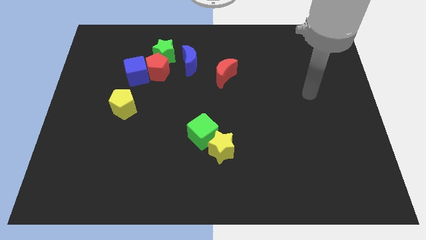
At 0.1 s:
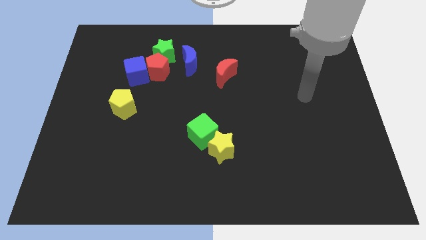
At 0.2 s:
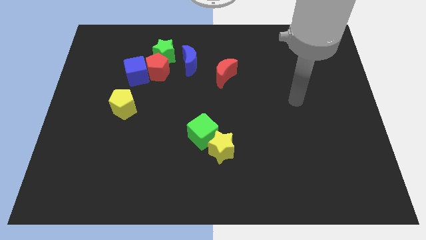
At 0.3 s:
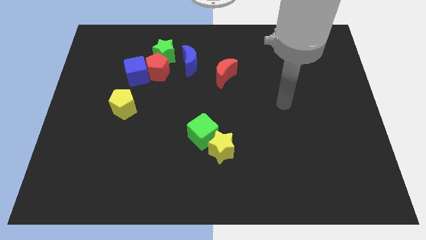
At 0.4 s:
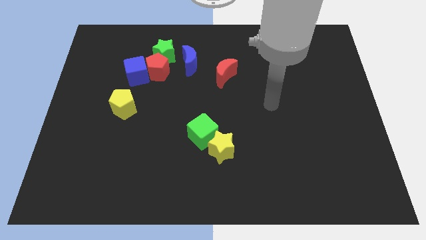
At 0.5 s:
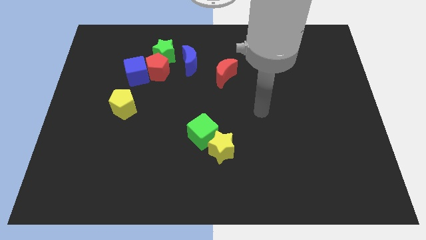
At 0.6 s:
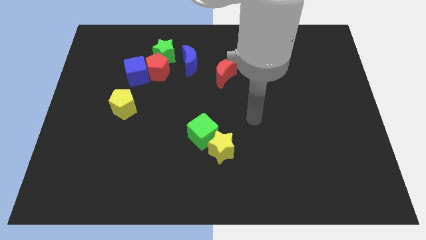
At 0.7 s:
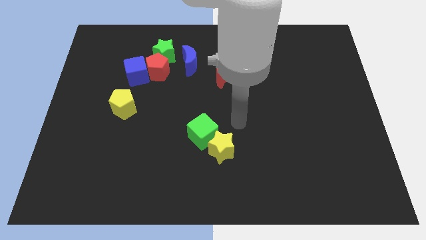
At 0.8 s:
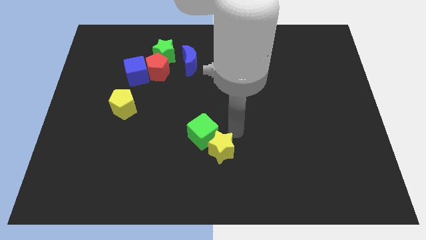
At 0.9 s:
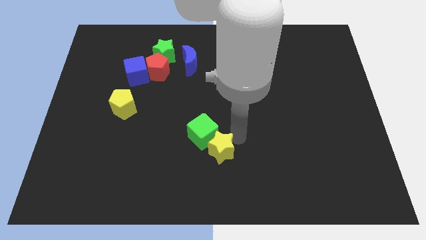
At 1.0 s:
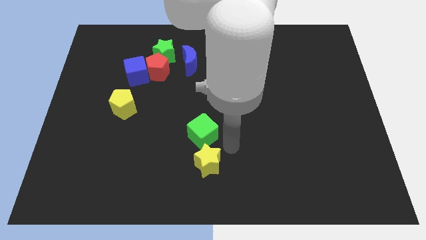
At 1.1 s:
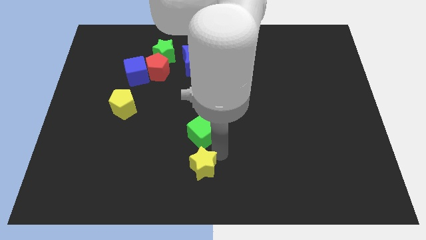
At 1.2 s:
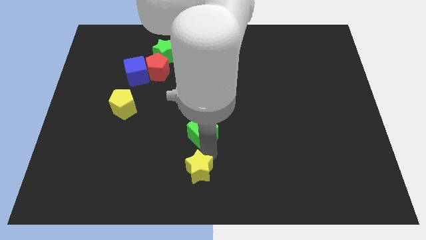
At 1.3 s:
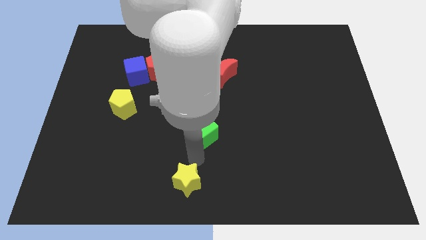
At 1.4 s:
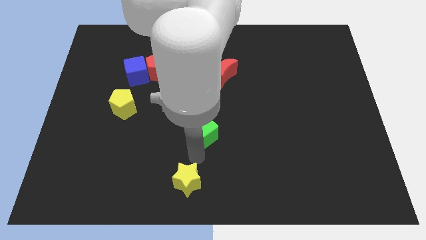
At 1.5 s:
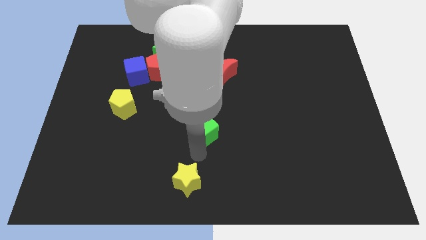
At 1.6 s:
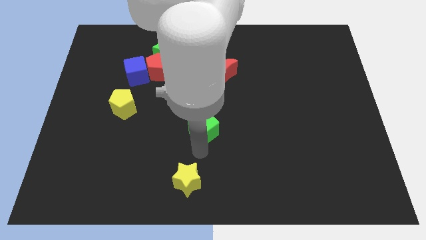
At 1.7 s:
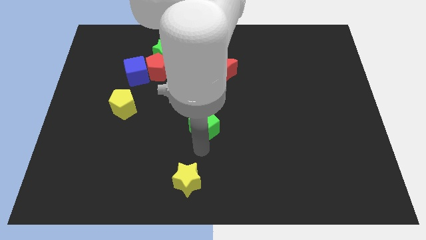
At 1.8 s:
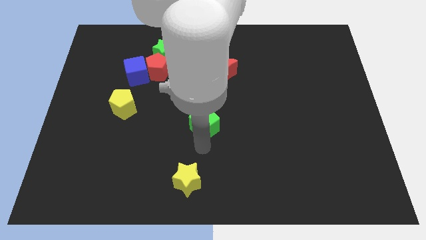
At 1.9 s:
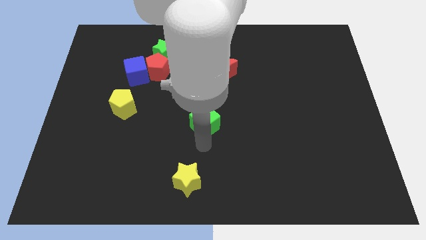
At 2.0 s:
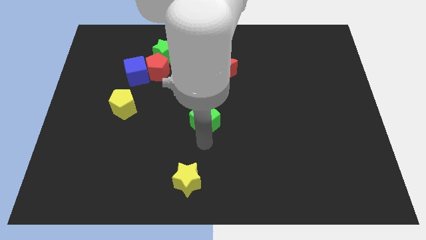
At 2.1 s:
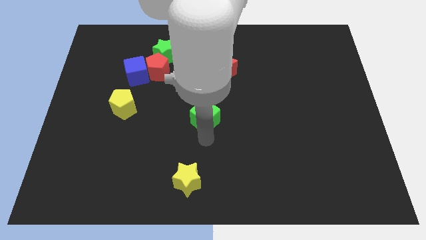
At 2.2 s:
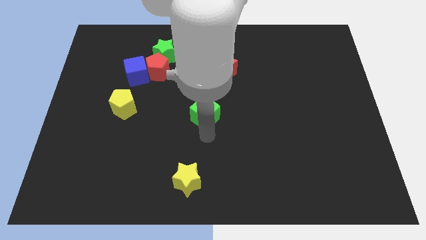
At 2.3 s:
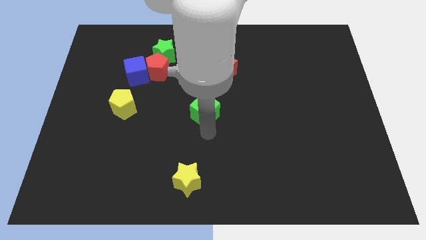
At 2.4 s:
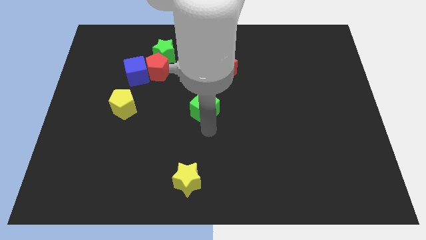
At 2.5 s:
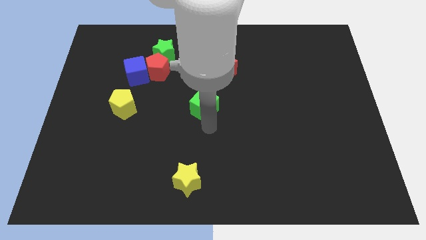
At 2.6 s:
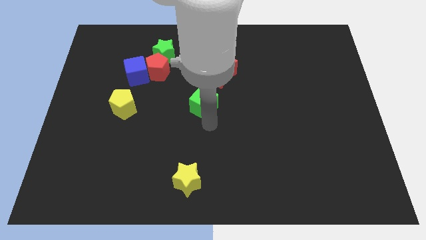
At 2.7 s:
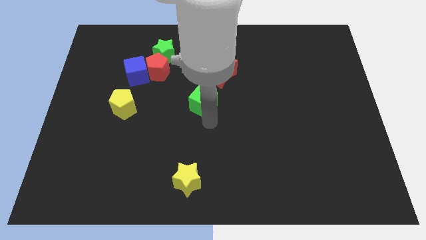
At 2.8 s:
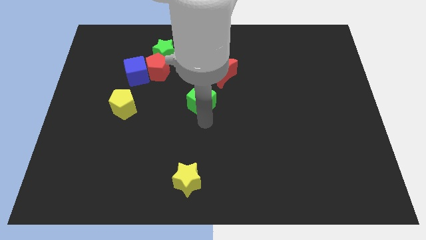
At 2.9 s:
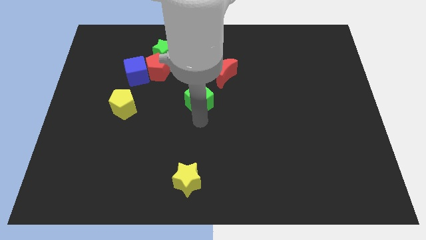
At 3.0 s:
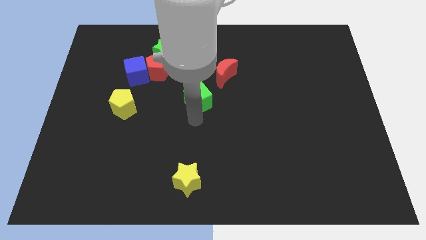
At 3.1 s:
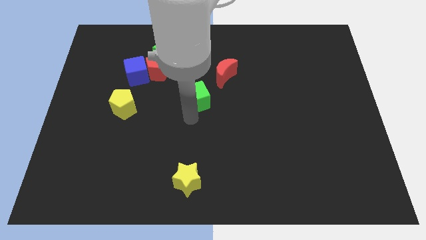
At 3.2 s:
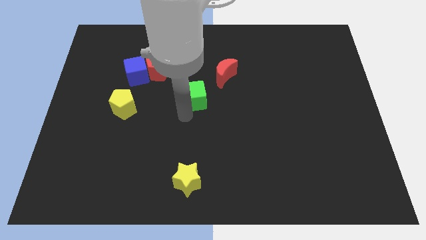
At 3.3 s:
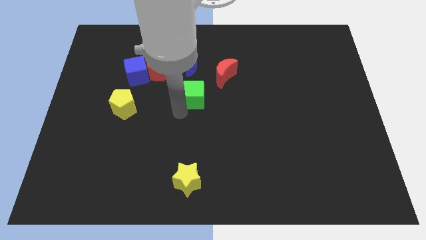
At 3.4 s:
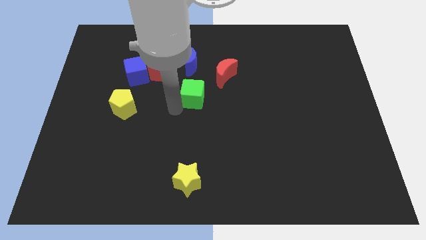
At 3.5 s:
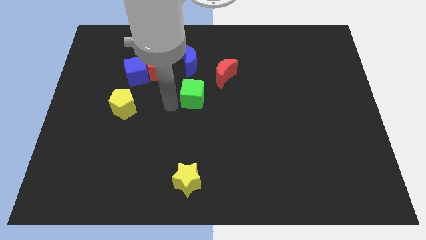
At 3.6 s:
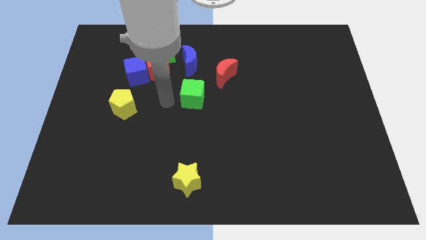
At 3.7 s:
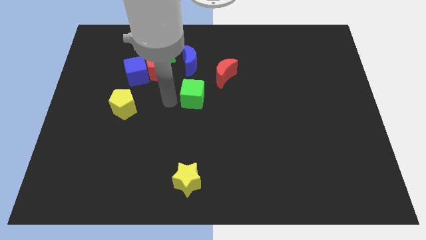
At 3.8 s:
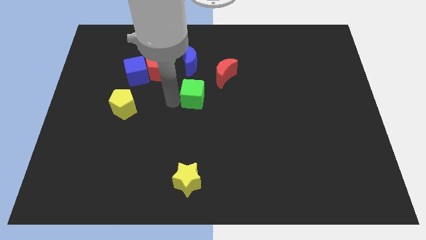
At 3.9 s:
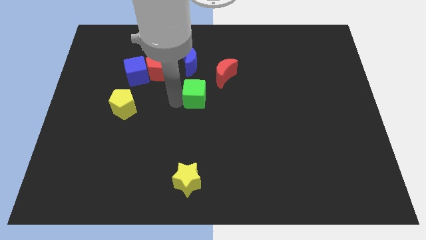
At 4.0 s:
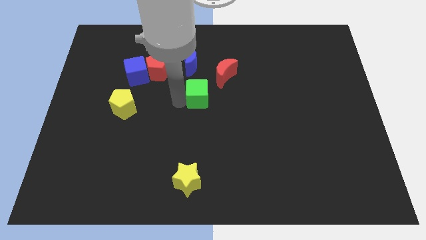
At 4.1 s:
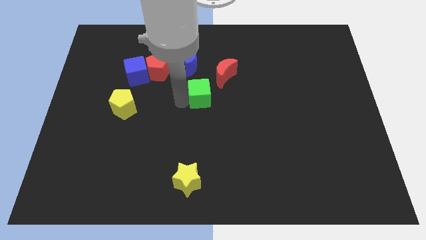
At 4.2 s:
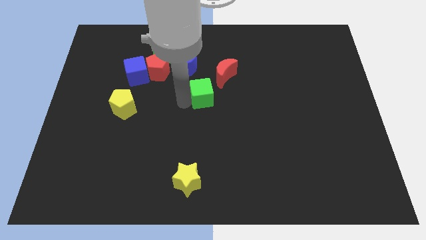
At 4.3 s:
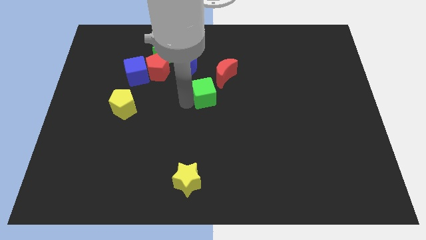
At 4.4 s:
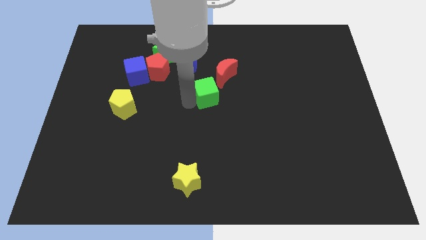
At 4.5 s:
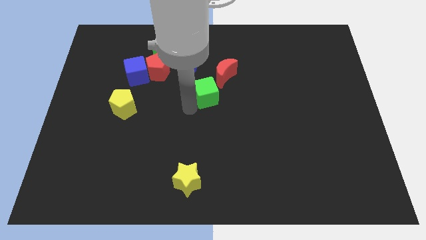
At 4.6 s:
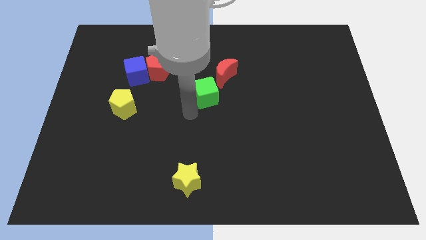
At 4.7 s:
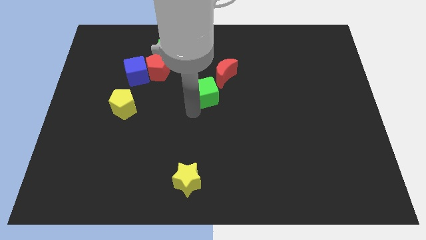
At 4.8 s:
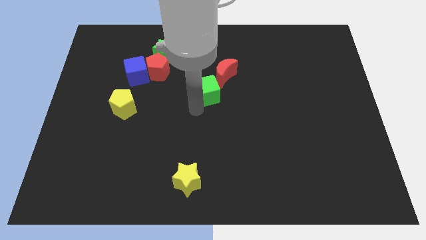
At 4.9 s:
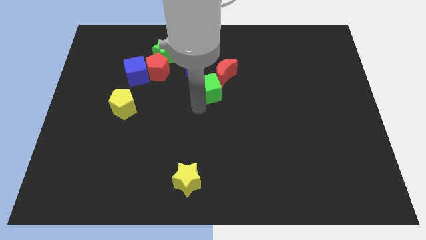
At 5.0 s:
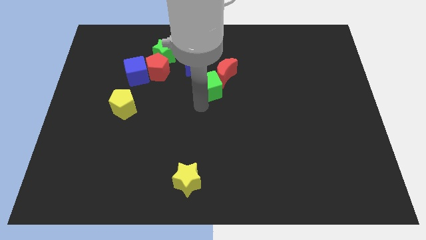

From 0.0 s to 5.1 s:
slide the green cube towards the red moon

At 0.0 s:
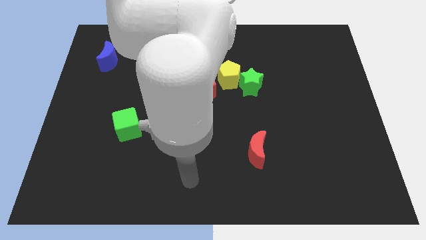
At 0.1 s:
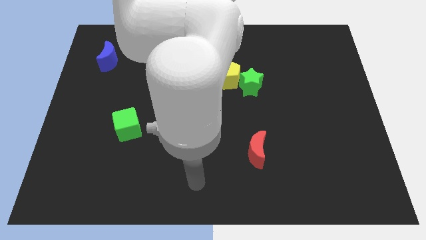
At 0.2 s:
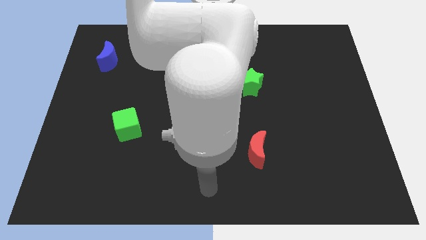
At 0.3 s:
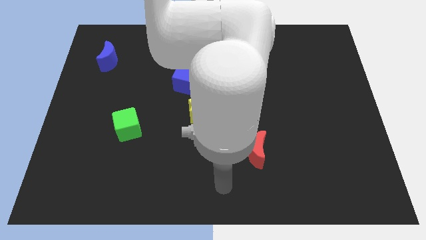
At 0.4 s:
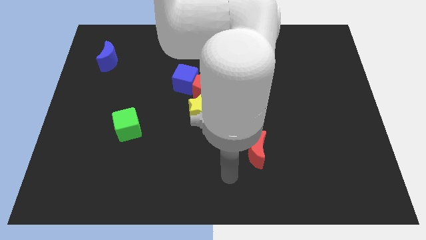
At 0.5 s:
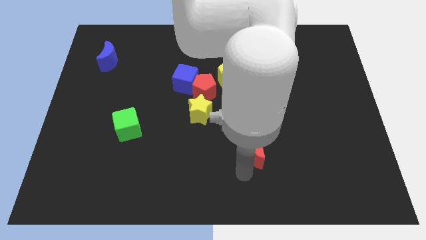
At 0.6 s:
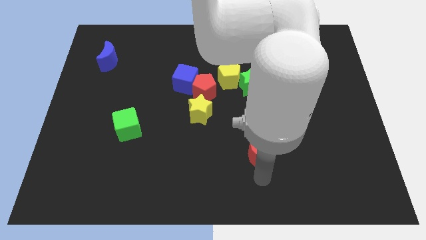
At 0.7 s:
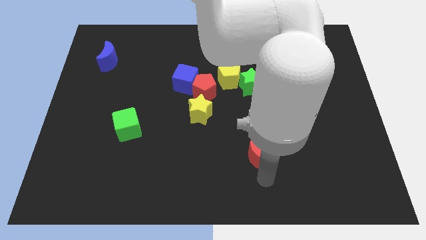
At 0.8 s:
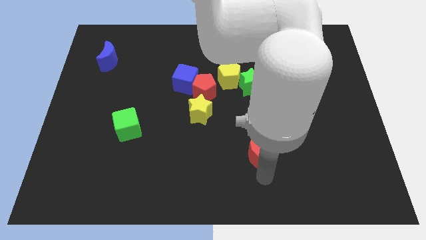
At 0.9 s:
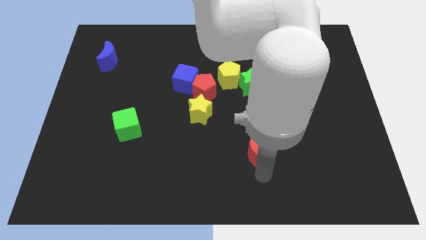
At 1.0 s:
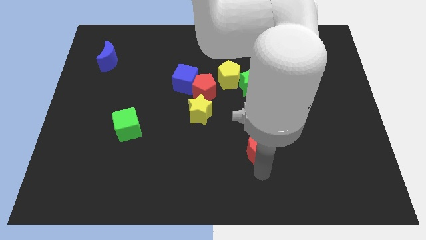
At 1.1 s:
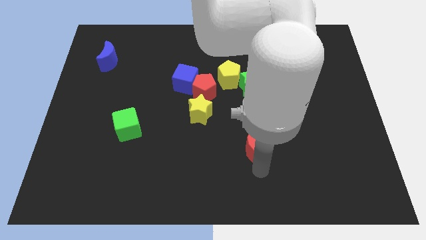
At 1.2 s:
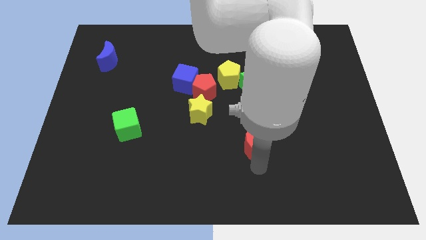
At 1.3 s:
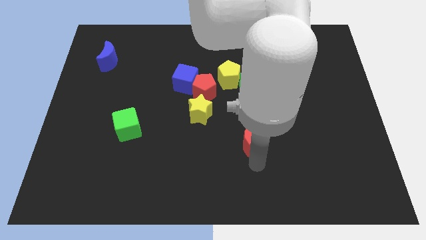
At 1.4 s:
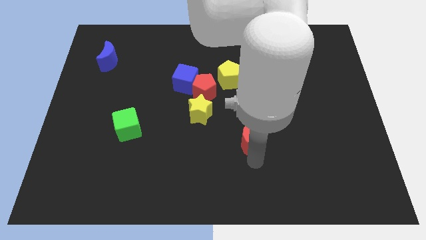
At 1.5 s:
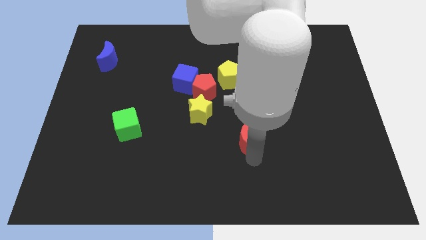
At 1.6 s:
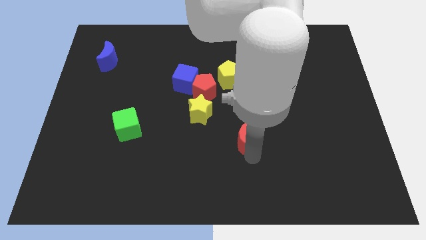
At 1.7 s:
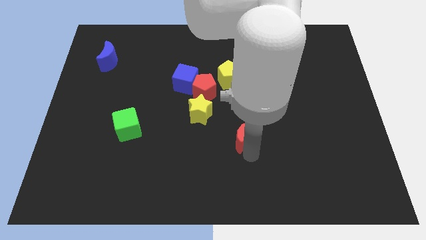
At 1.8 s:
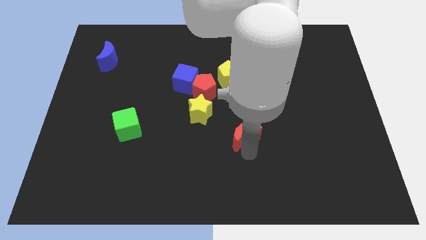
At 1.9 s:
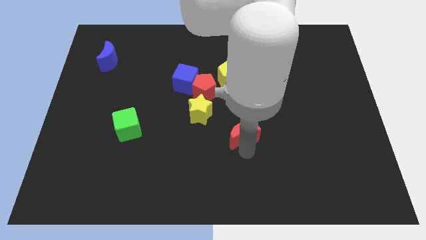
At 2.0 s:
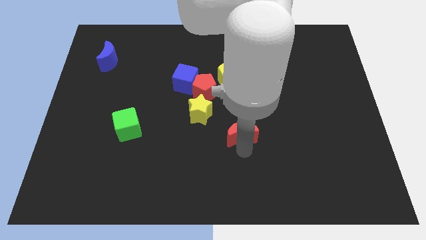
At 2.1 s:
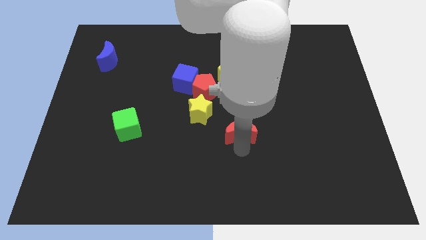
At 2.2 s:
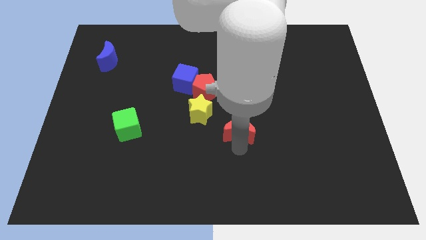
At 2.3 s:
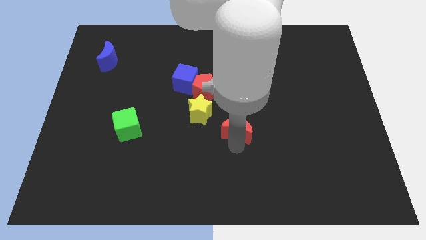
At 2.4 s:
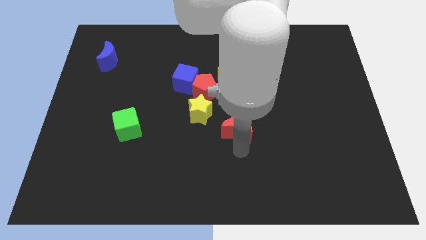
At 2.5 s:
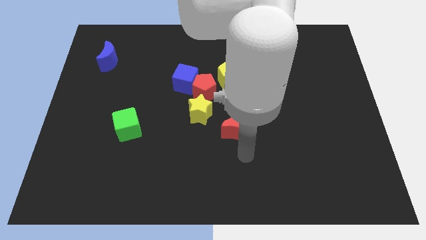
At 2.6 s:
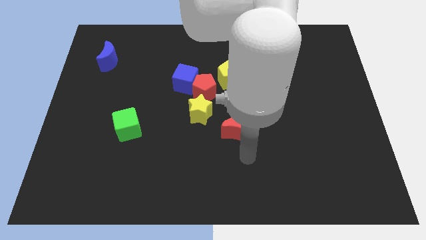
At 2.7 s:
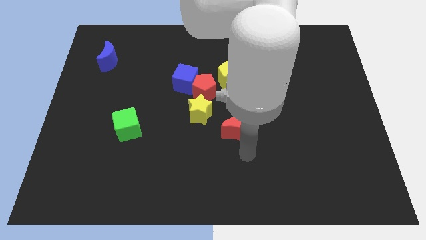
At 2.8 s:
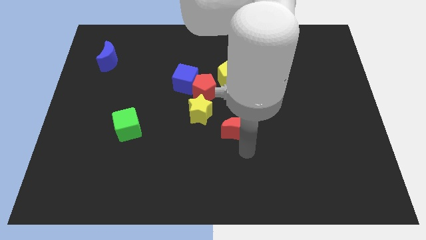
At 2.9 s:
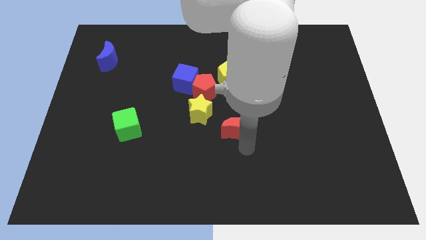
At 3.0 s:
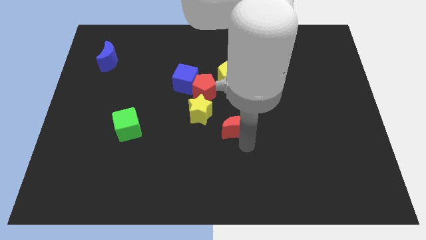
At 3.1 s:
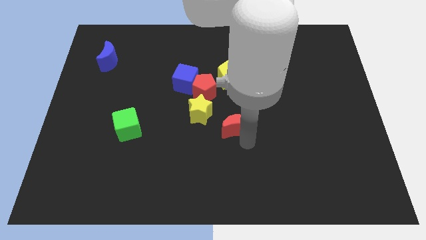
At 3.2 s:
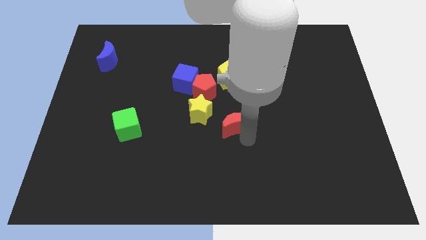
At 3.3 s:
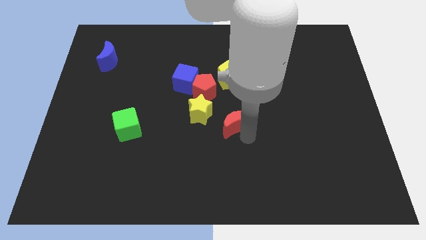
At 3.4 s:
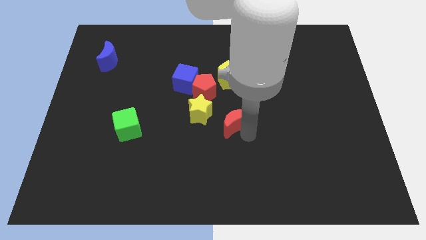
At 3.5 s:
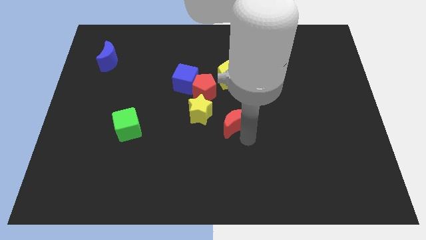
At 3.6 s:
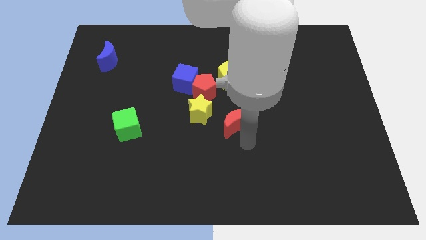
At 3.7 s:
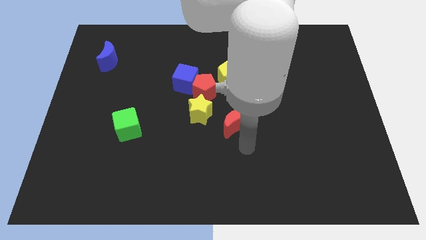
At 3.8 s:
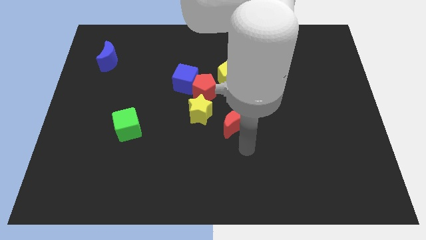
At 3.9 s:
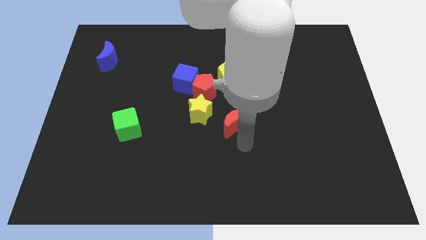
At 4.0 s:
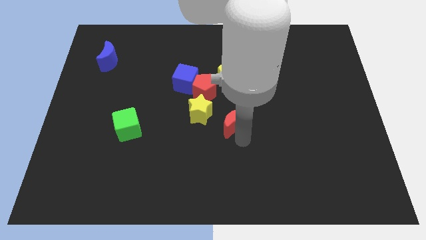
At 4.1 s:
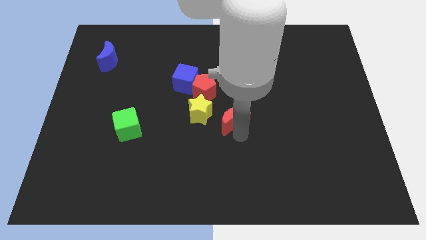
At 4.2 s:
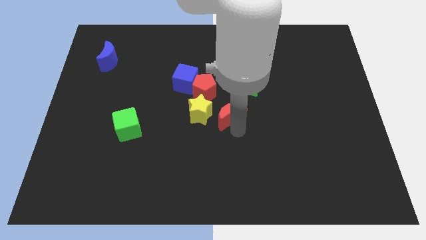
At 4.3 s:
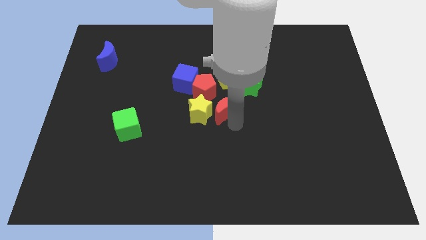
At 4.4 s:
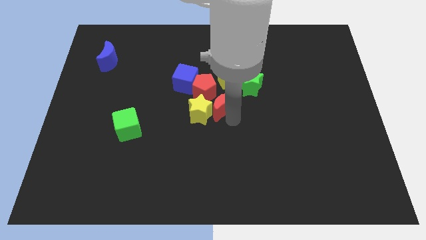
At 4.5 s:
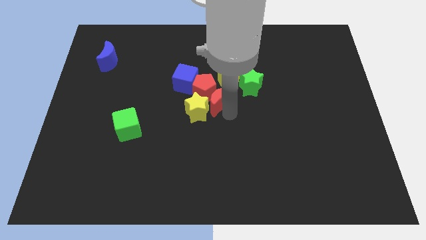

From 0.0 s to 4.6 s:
put the red moon close to the red pentagon
